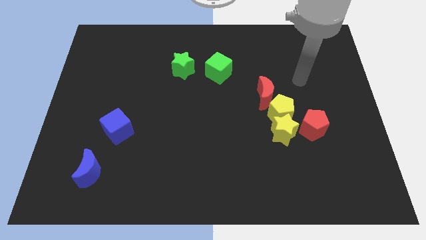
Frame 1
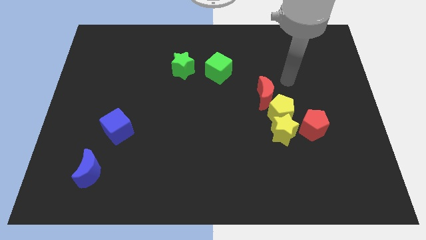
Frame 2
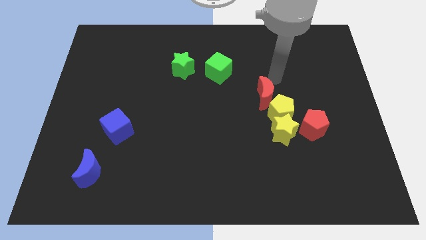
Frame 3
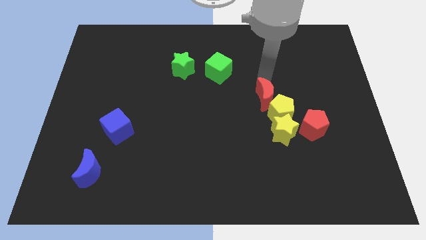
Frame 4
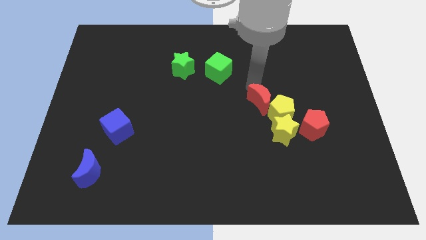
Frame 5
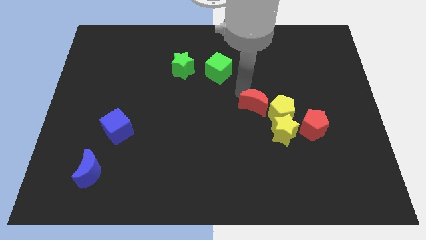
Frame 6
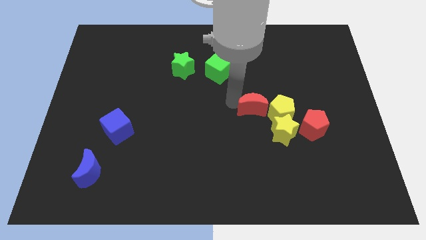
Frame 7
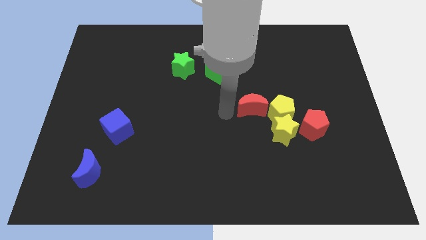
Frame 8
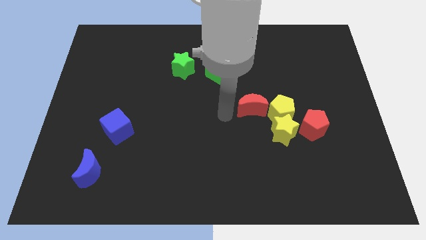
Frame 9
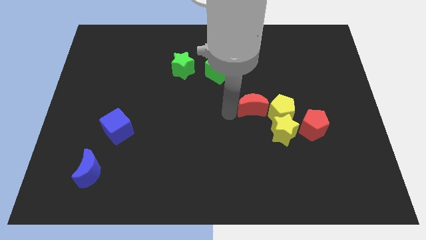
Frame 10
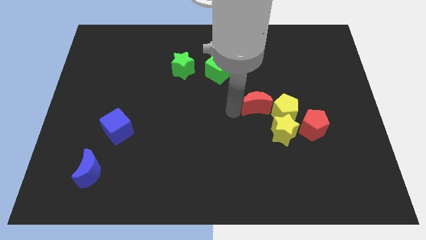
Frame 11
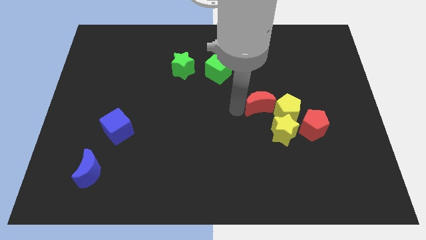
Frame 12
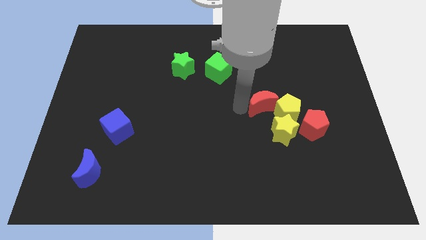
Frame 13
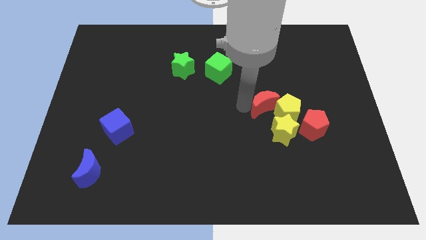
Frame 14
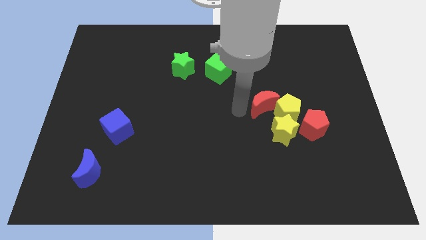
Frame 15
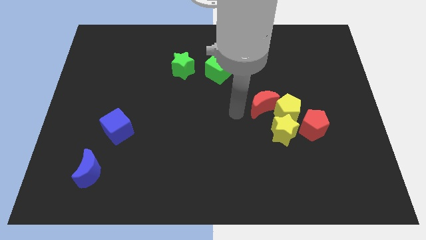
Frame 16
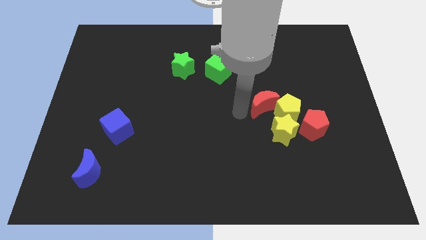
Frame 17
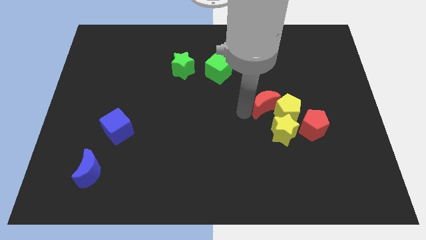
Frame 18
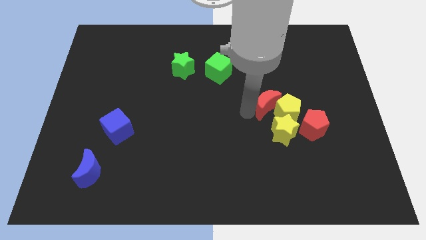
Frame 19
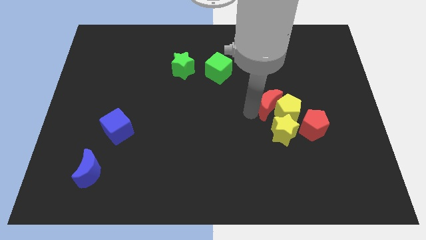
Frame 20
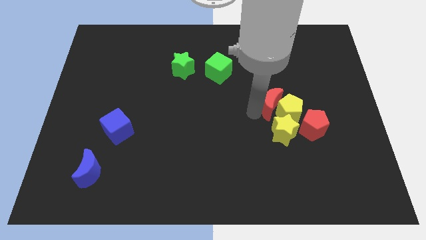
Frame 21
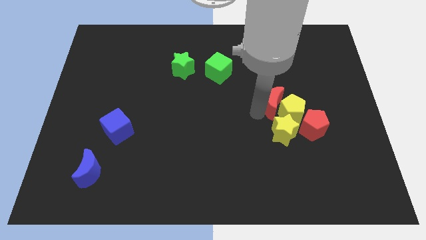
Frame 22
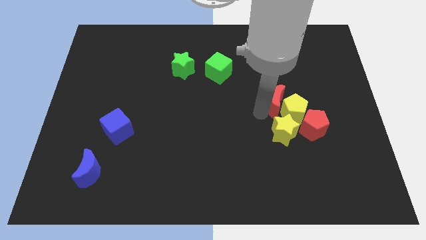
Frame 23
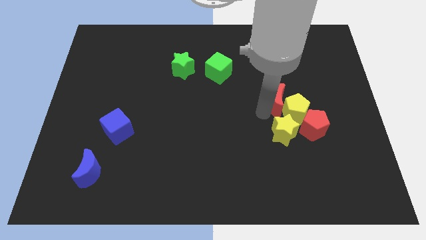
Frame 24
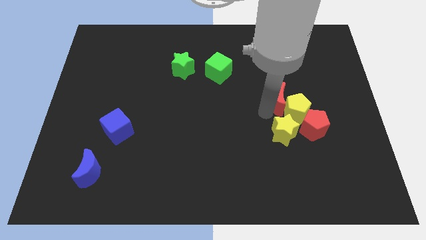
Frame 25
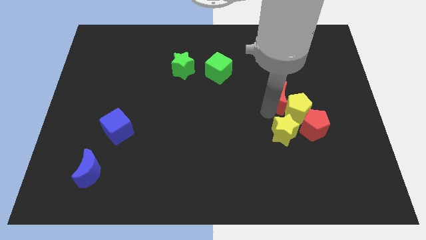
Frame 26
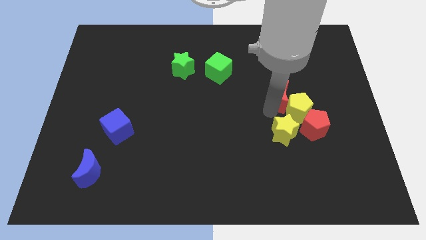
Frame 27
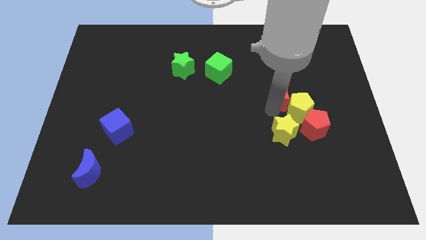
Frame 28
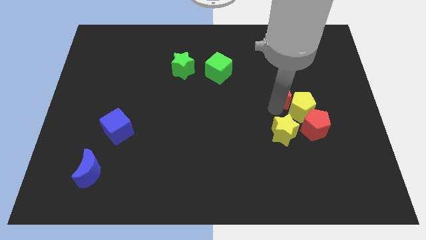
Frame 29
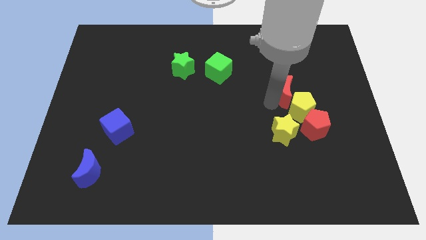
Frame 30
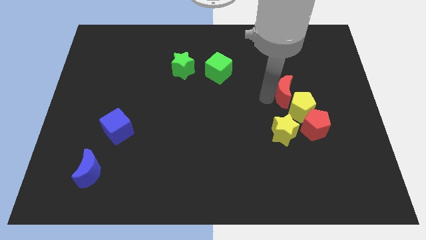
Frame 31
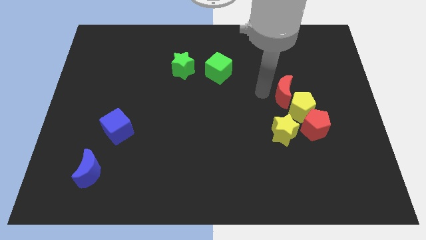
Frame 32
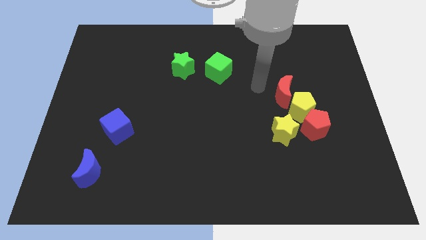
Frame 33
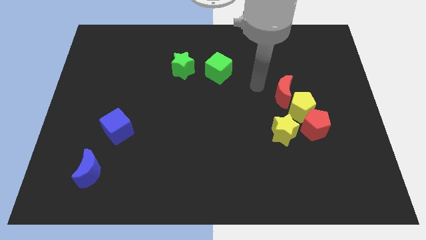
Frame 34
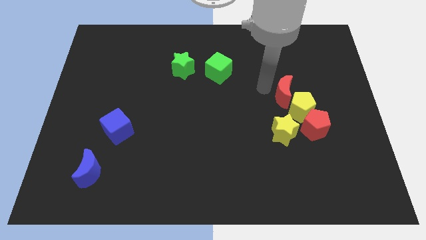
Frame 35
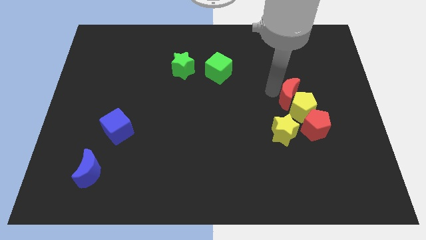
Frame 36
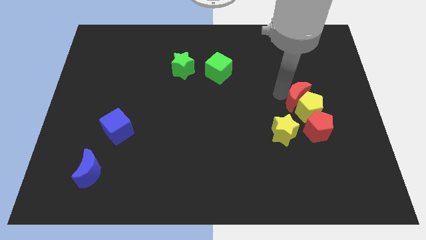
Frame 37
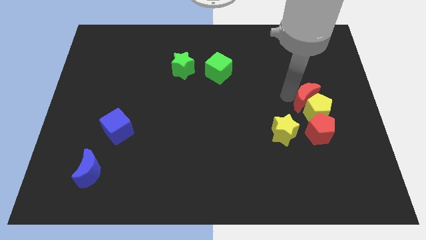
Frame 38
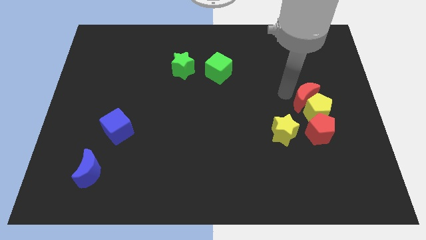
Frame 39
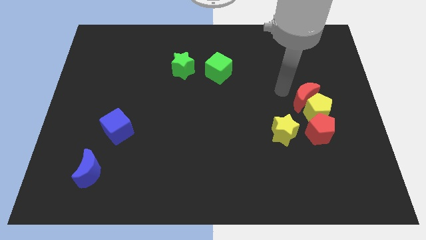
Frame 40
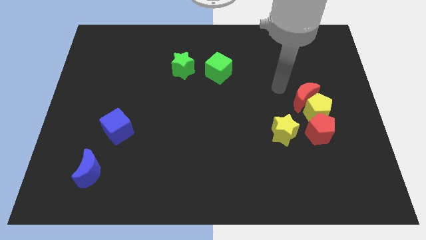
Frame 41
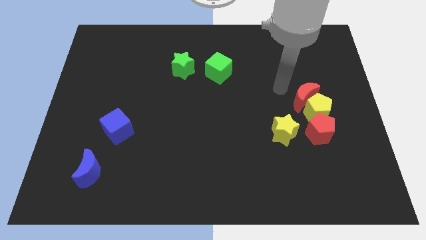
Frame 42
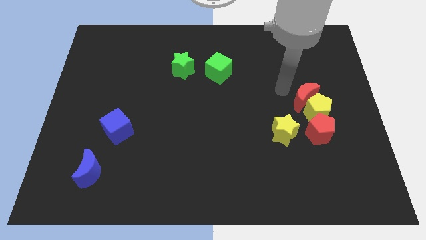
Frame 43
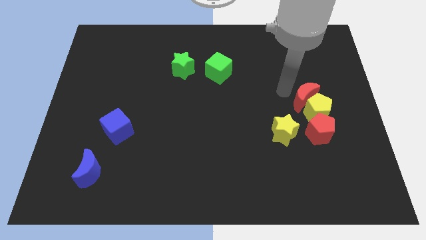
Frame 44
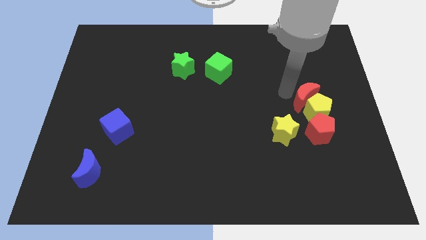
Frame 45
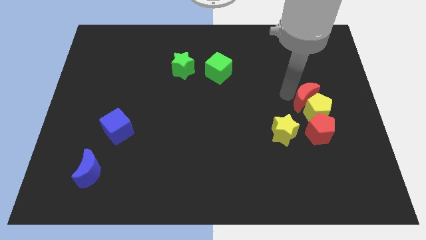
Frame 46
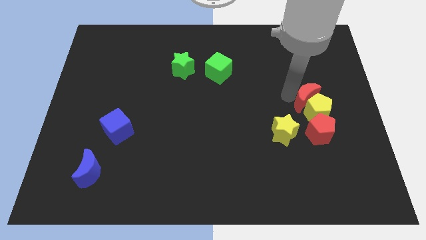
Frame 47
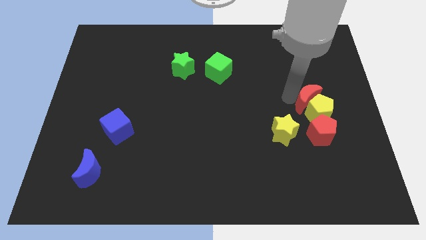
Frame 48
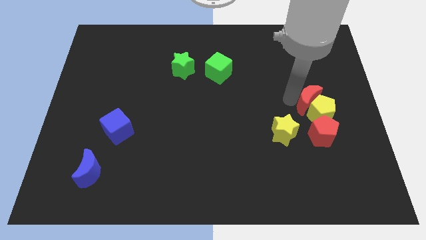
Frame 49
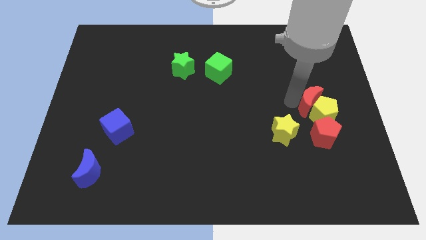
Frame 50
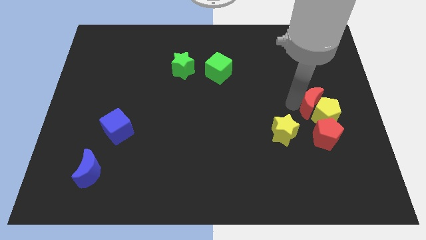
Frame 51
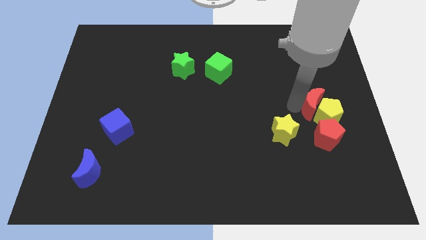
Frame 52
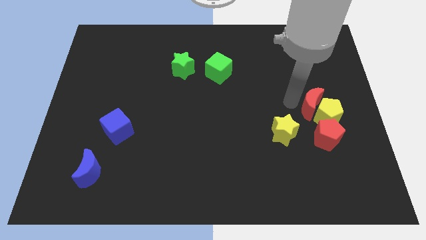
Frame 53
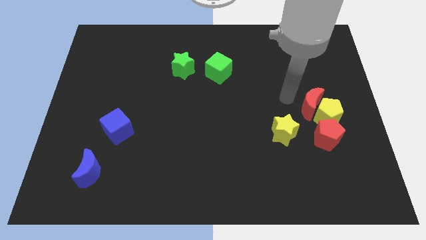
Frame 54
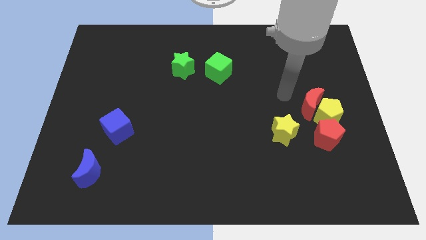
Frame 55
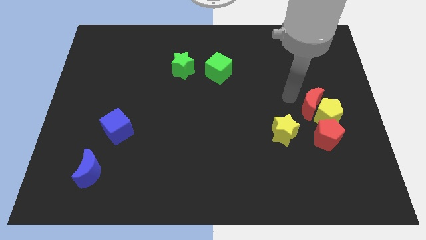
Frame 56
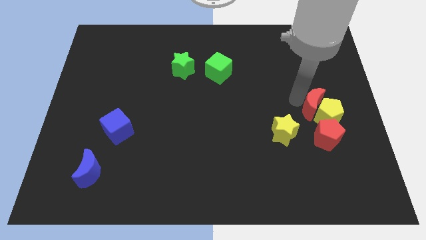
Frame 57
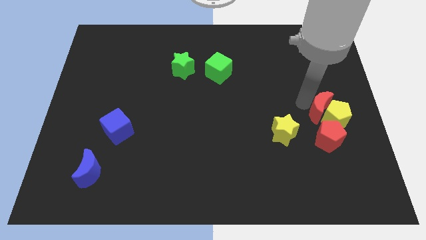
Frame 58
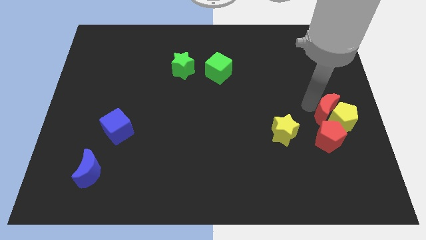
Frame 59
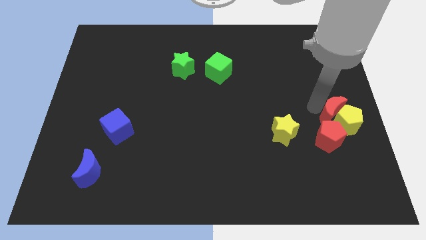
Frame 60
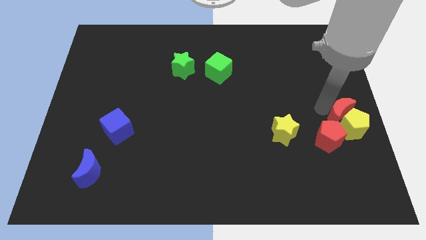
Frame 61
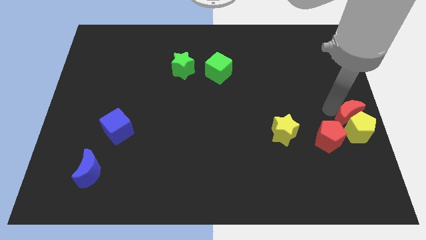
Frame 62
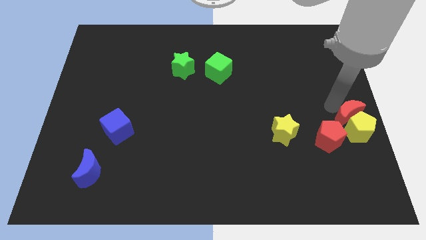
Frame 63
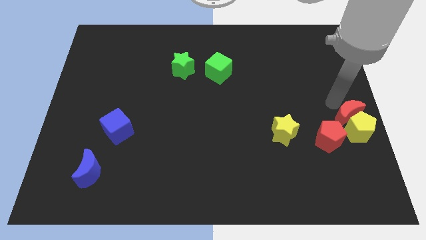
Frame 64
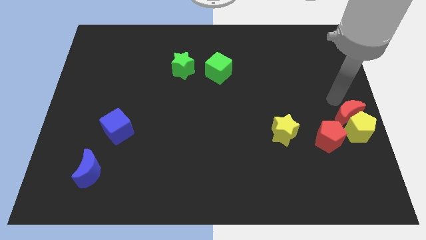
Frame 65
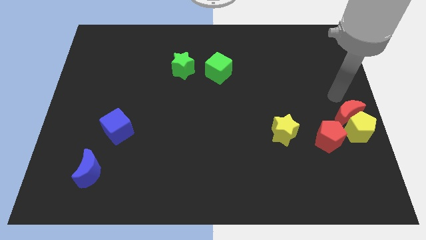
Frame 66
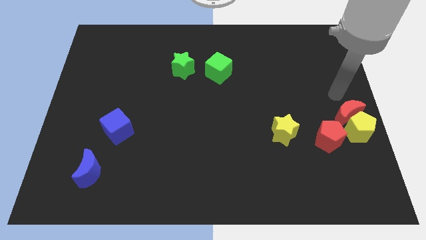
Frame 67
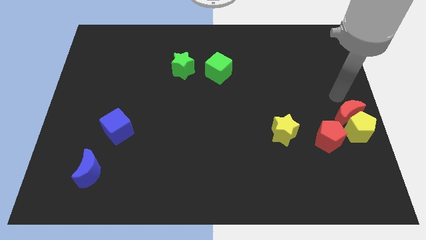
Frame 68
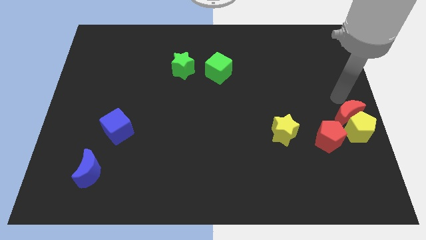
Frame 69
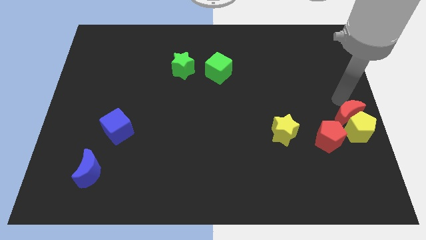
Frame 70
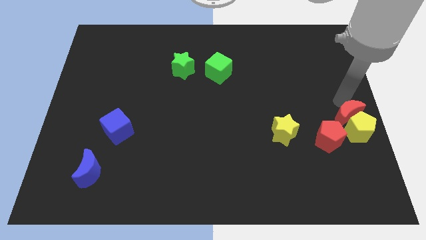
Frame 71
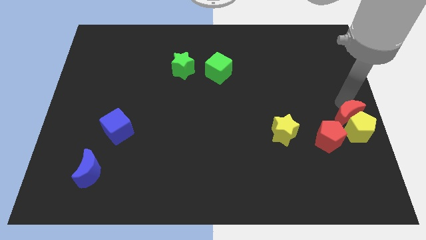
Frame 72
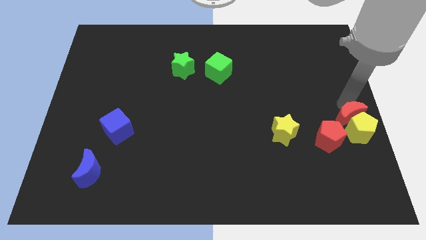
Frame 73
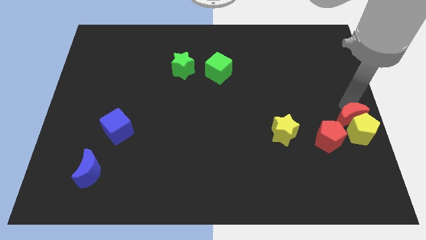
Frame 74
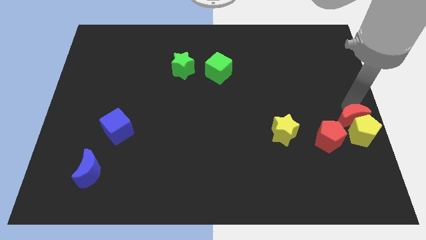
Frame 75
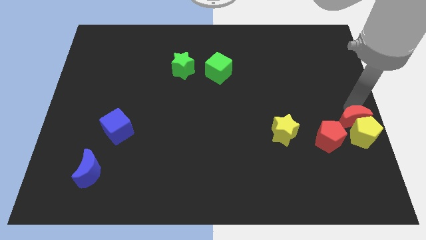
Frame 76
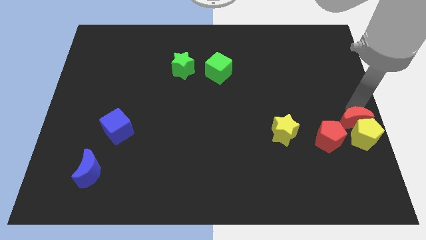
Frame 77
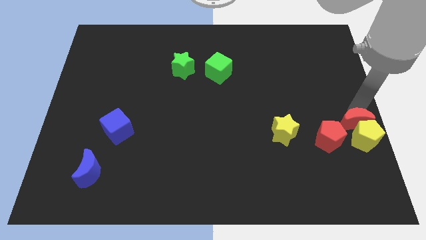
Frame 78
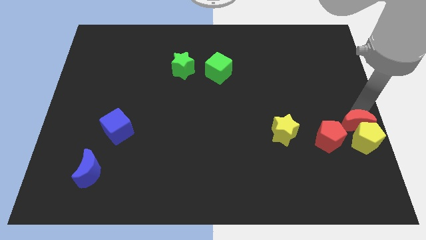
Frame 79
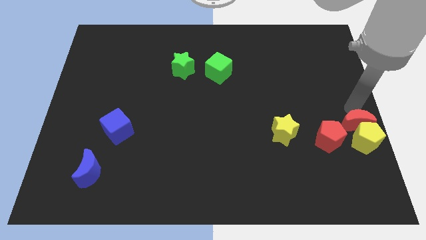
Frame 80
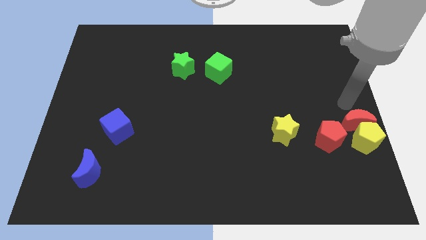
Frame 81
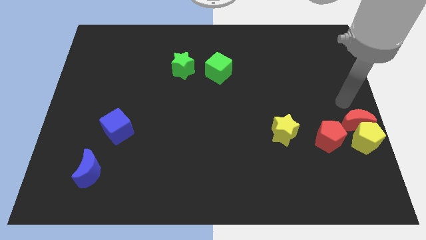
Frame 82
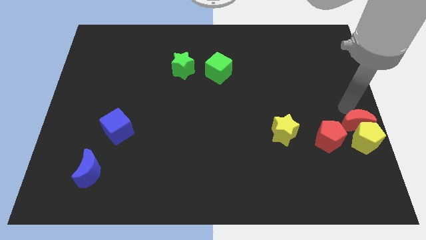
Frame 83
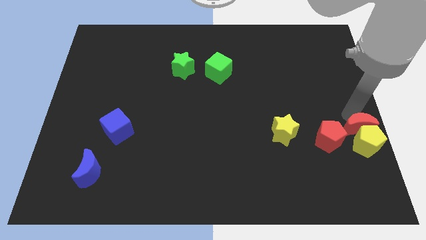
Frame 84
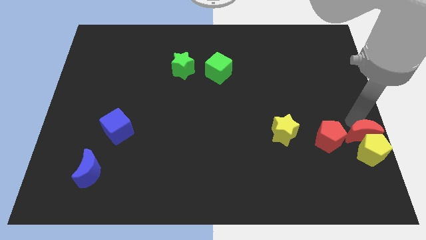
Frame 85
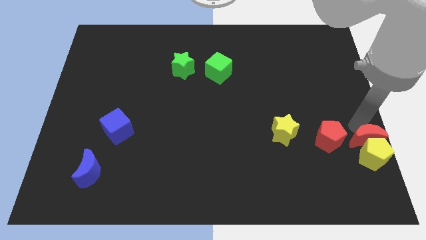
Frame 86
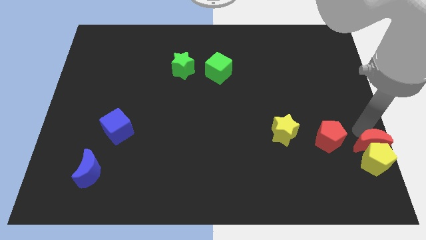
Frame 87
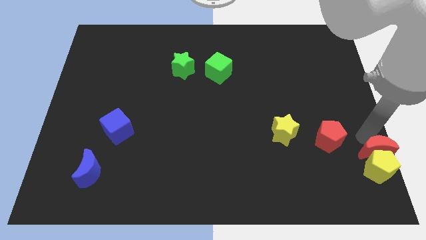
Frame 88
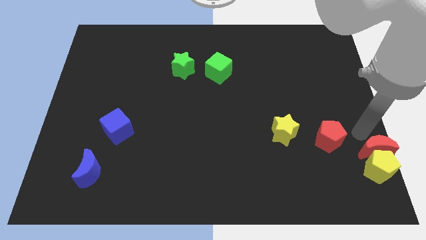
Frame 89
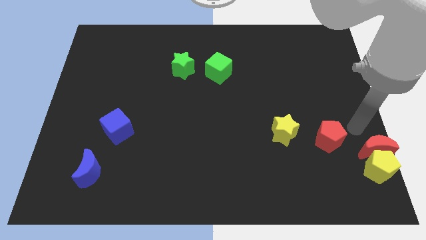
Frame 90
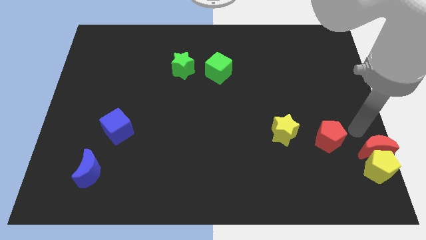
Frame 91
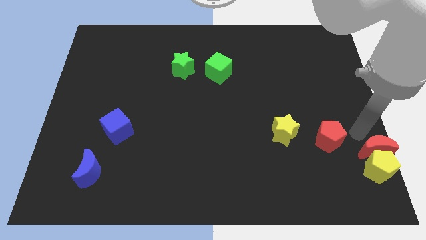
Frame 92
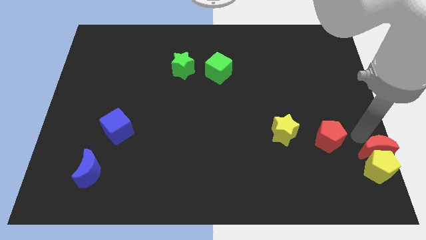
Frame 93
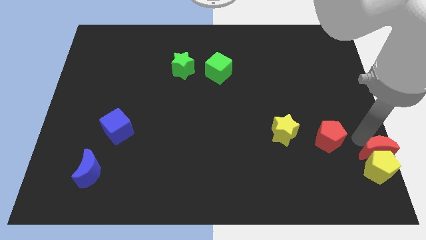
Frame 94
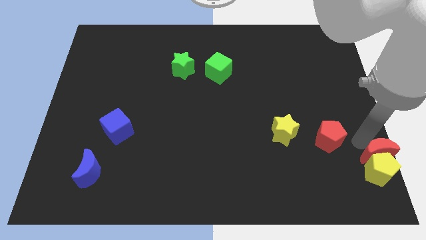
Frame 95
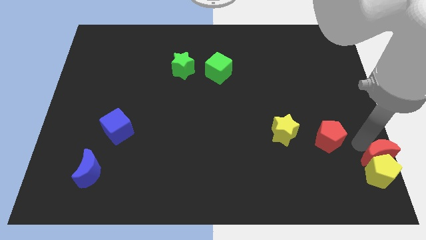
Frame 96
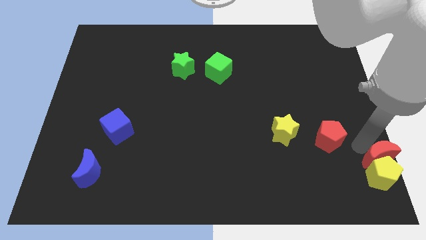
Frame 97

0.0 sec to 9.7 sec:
put the red moon to the bottom right of the board
